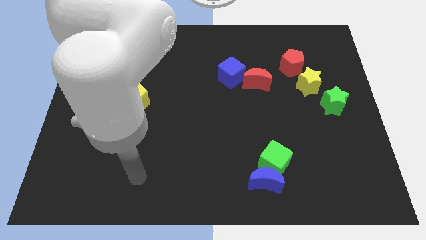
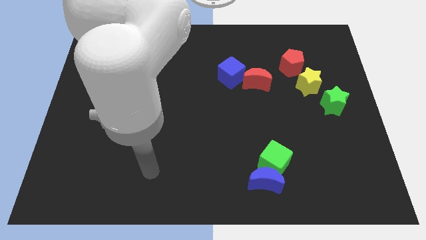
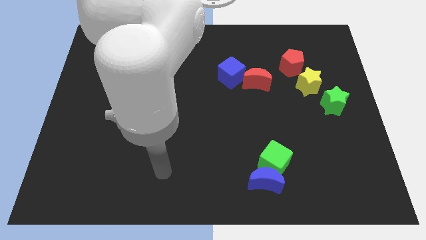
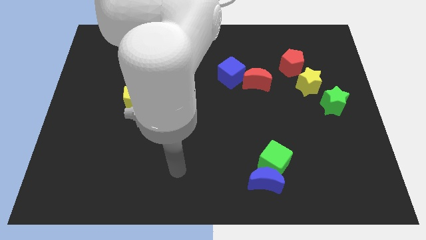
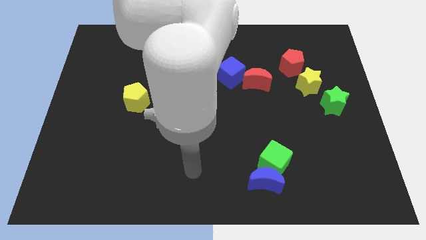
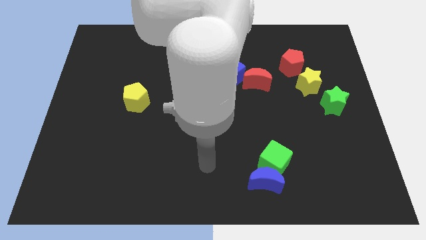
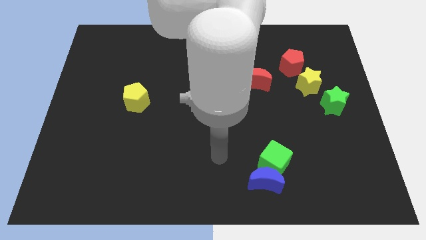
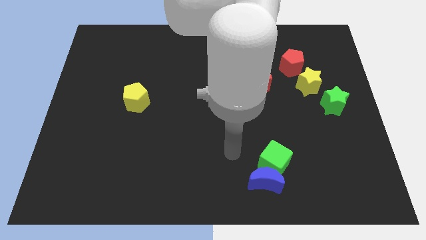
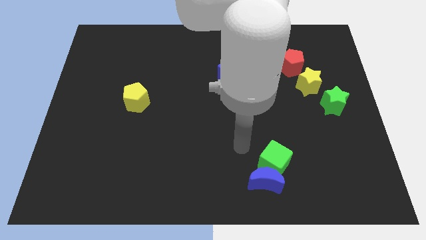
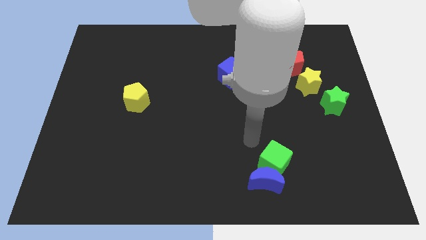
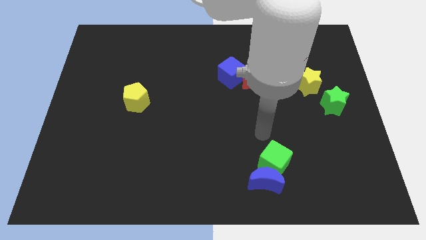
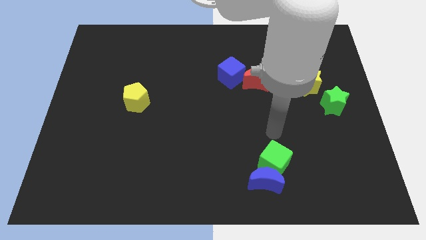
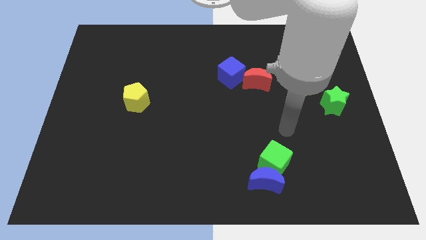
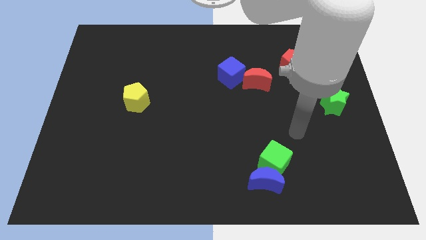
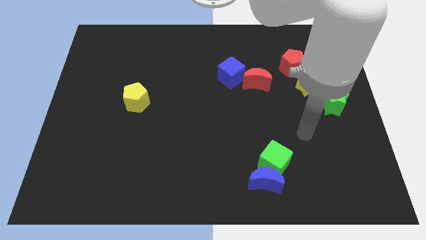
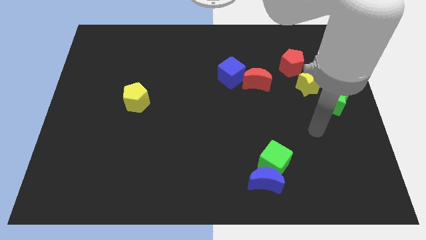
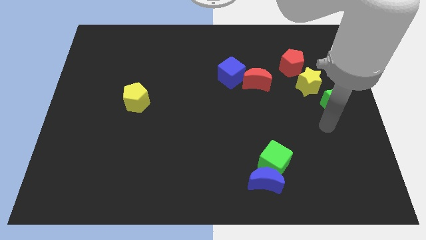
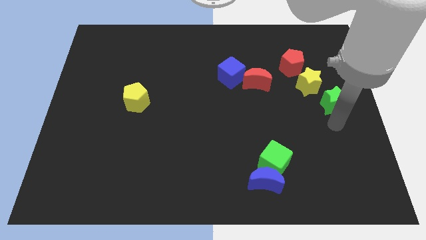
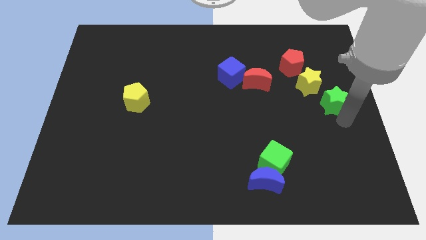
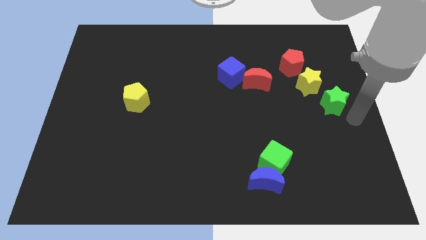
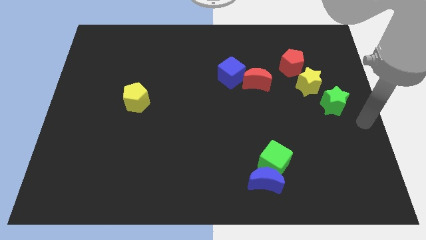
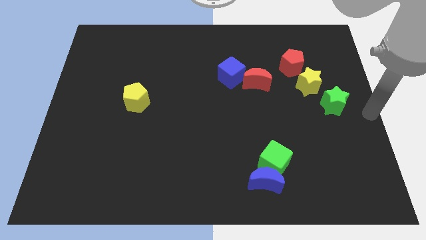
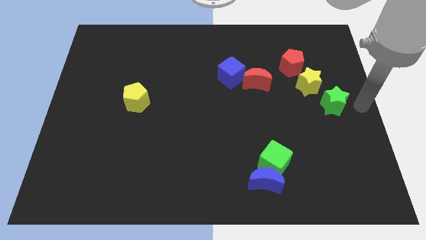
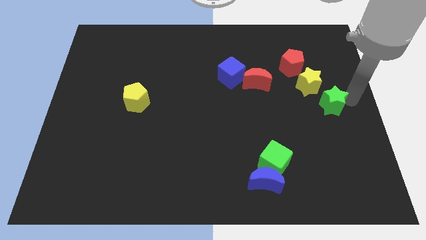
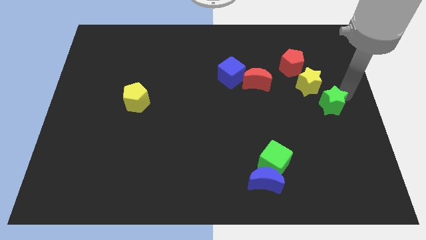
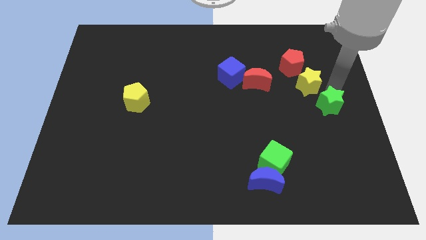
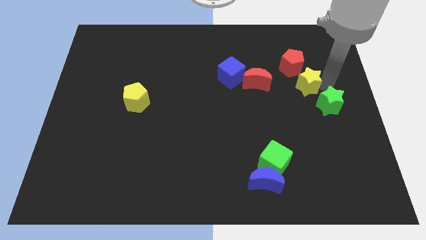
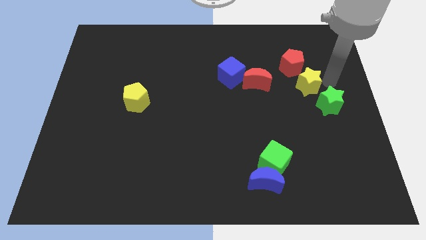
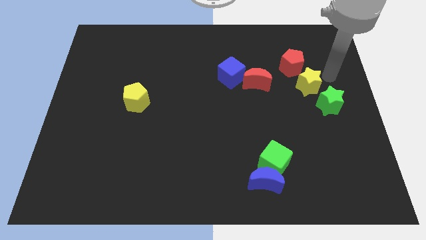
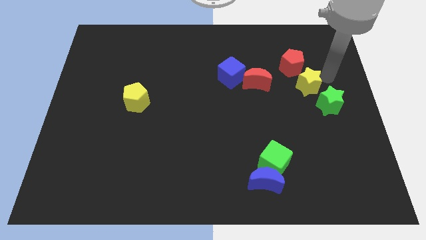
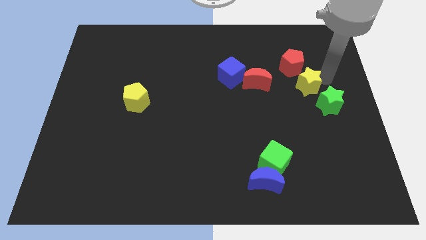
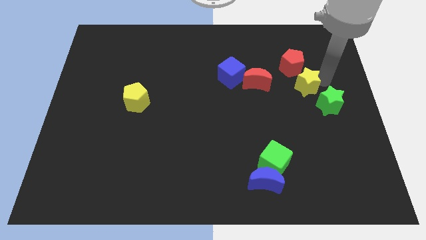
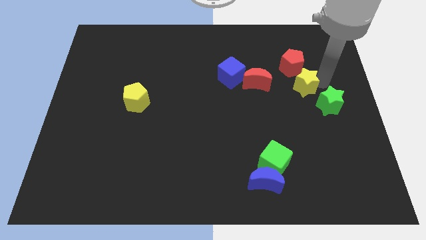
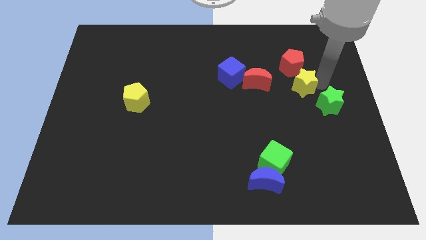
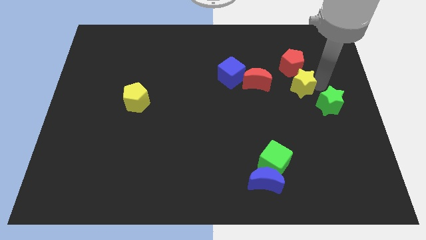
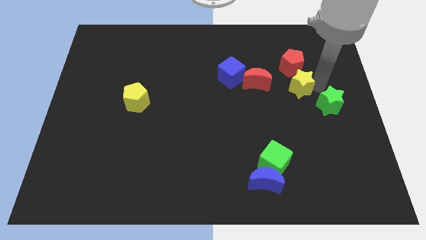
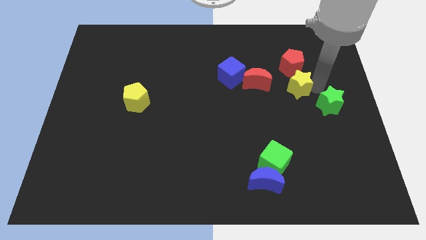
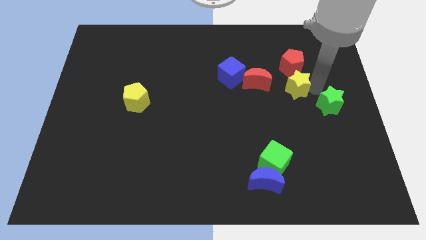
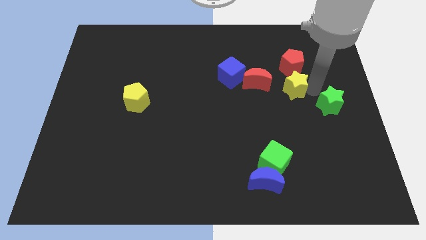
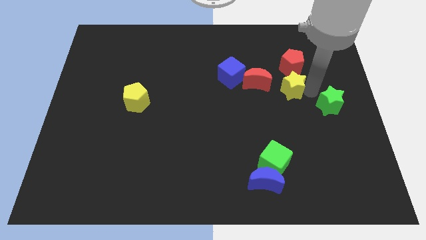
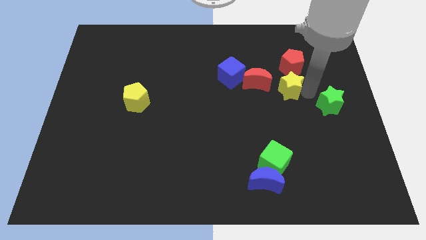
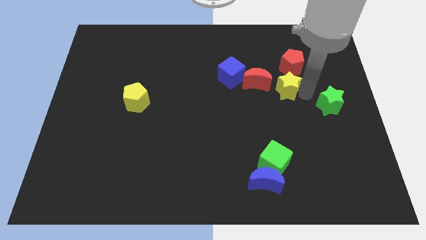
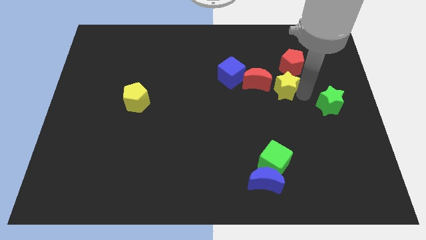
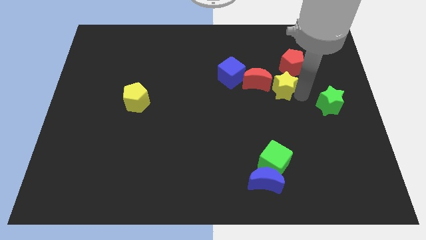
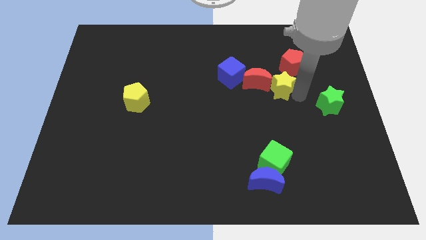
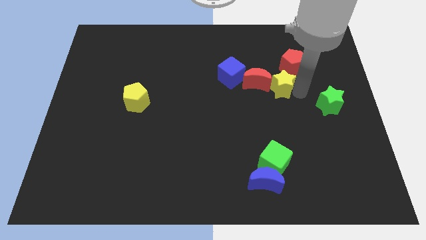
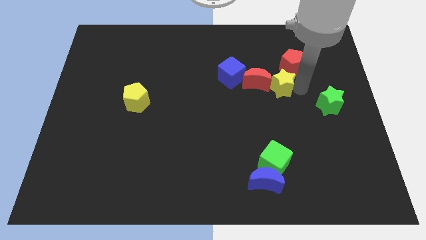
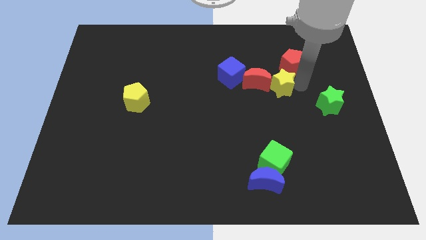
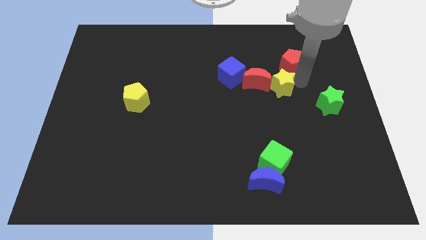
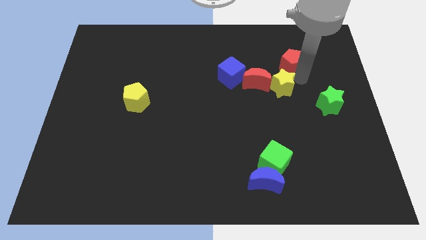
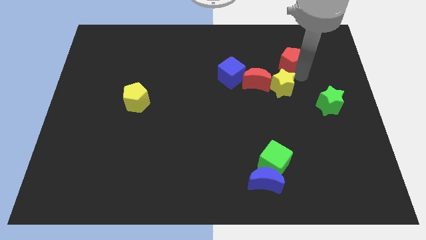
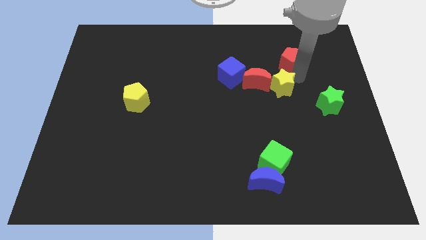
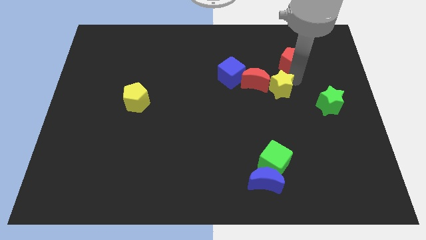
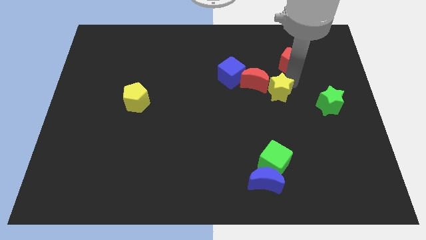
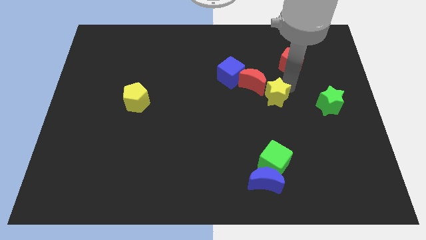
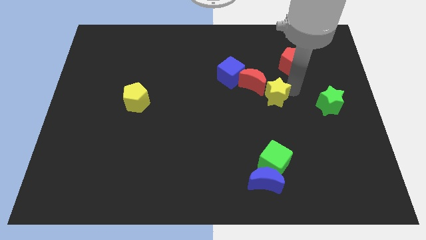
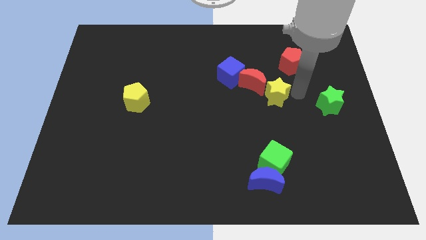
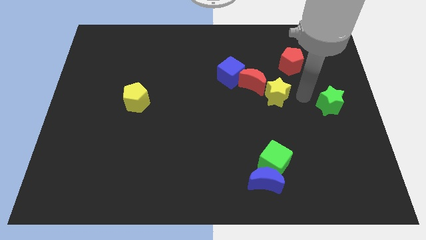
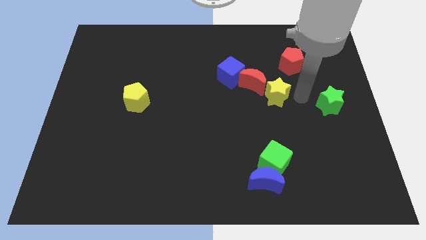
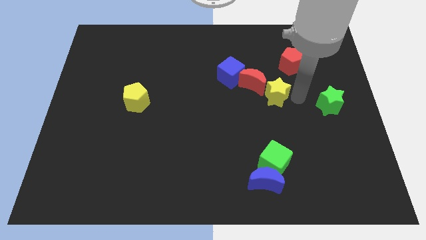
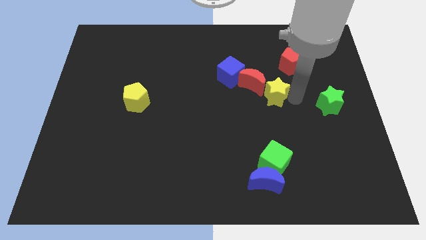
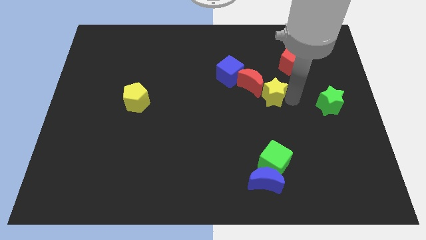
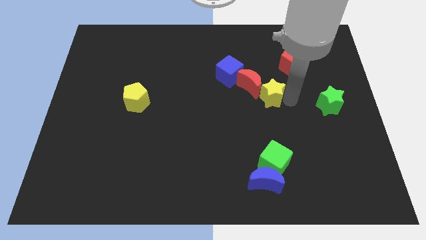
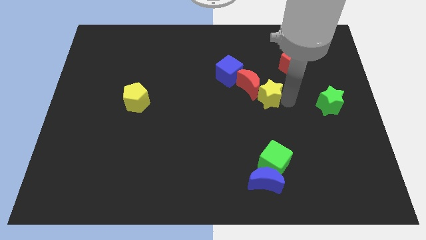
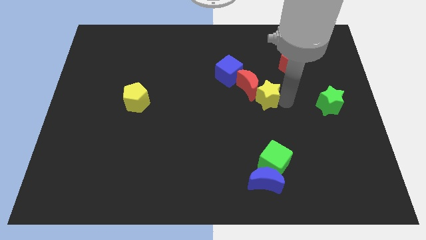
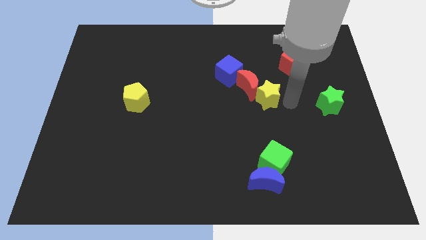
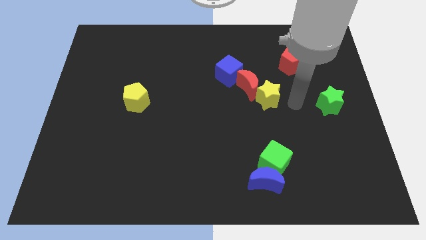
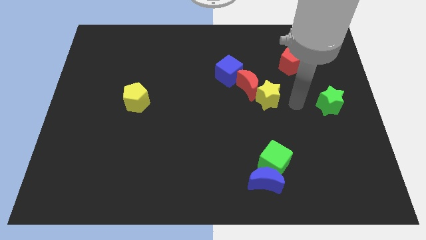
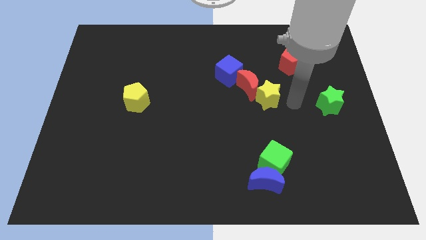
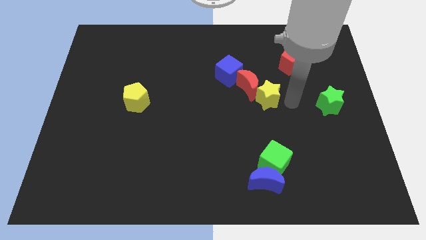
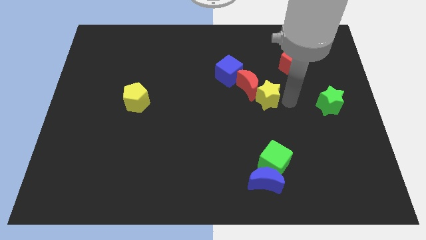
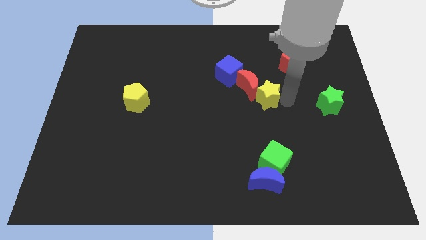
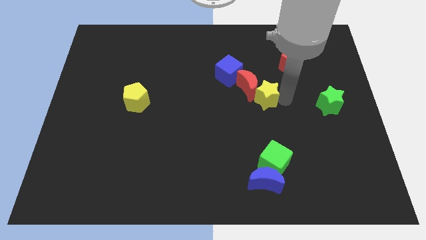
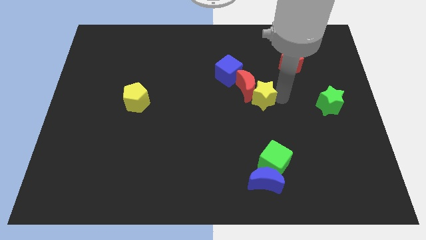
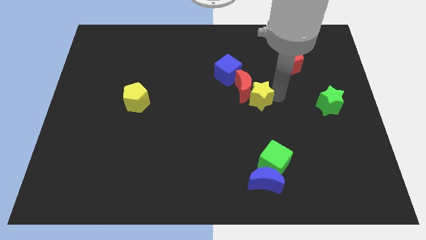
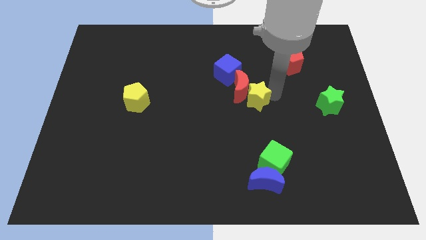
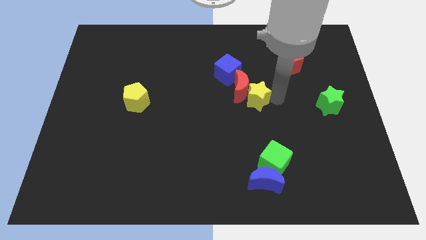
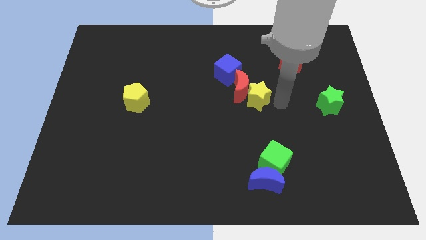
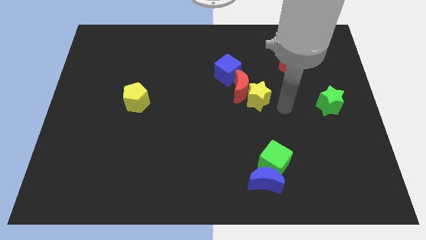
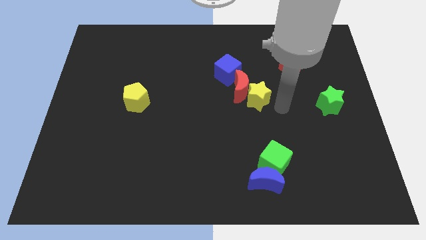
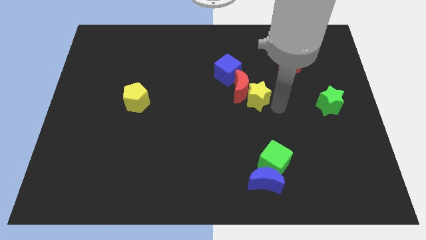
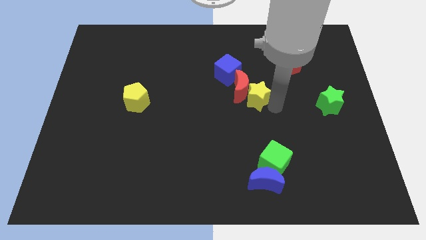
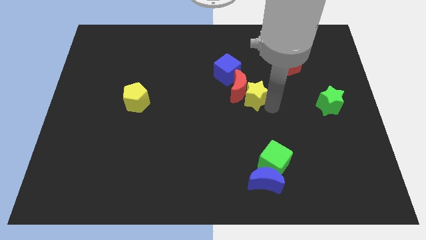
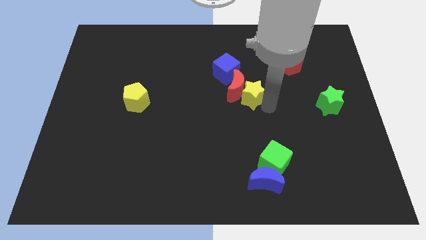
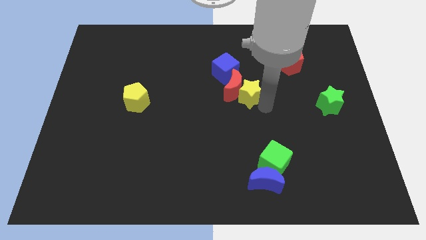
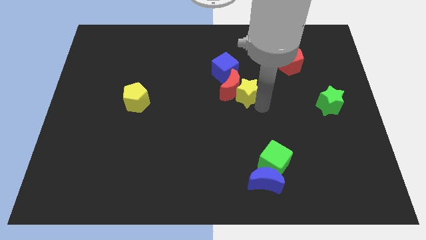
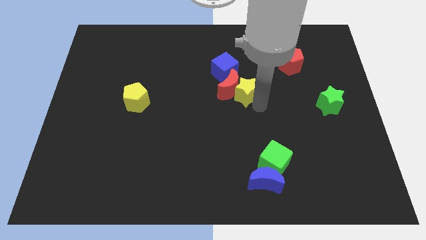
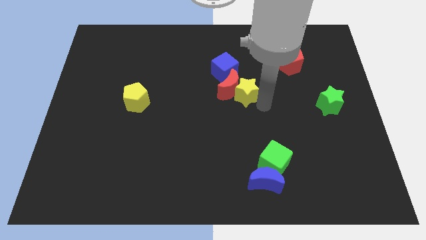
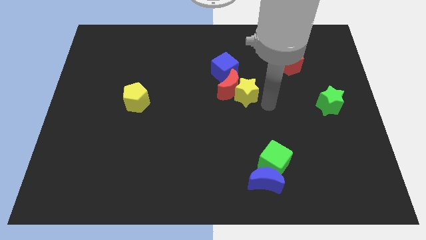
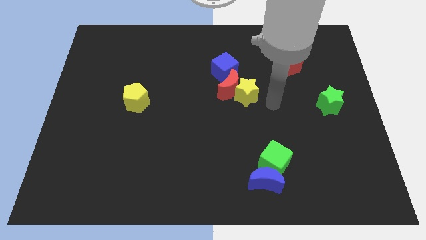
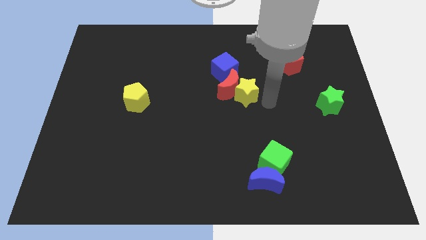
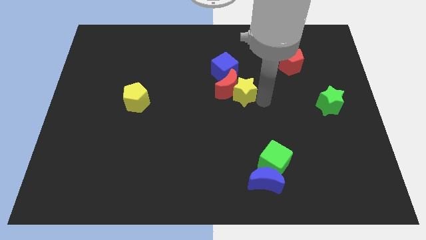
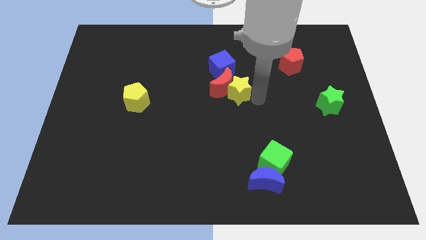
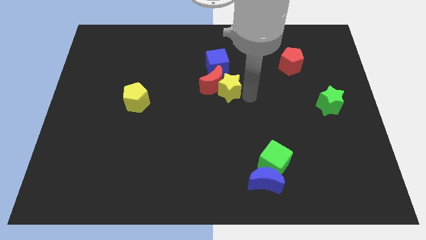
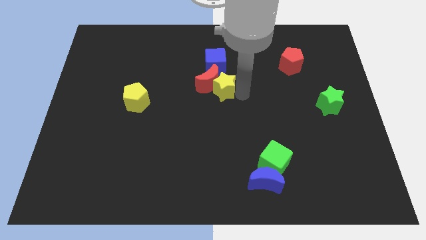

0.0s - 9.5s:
push the yellow star to the left
